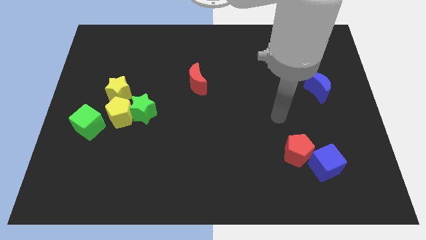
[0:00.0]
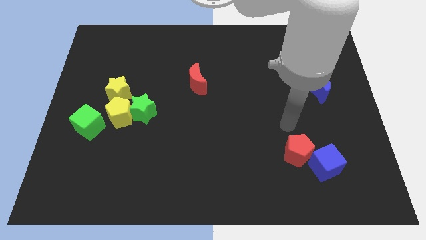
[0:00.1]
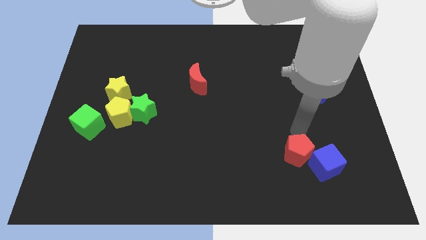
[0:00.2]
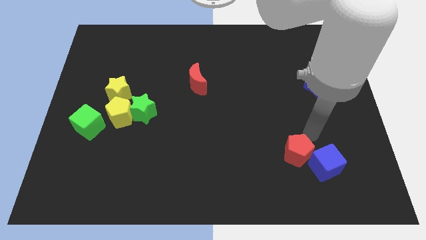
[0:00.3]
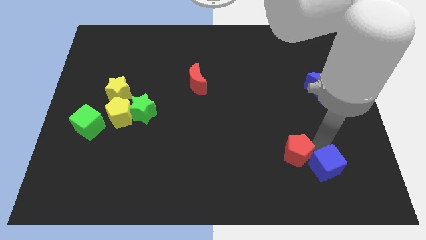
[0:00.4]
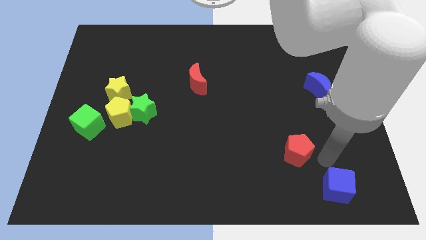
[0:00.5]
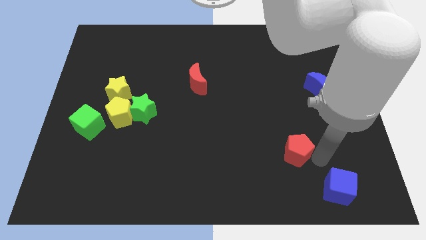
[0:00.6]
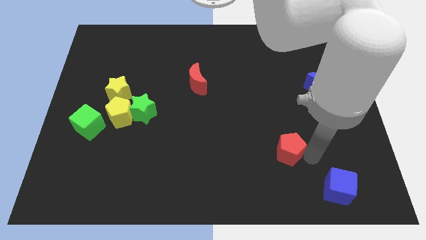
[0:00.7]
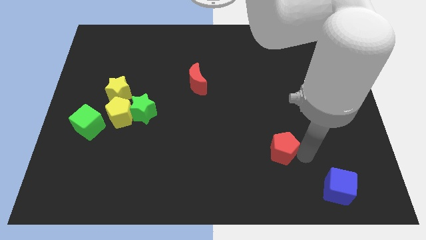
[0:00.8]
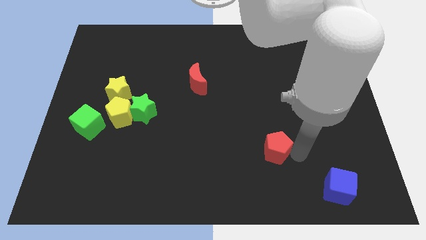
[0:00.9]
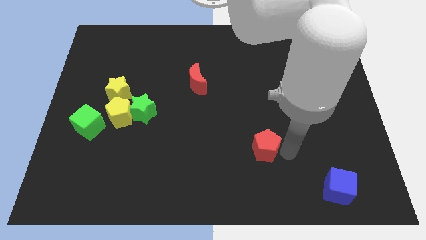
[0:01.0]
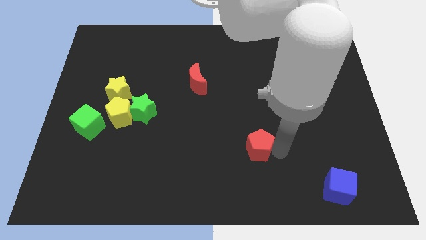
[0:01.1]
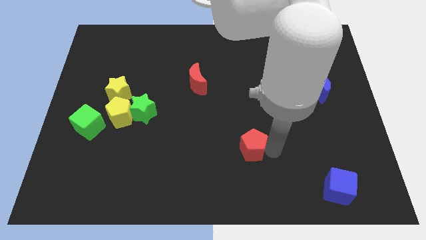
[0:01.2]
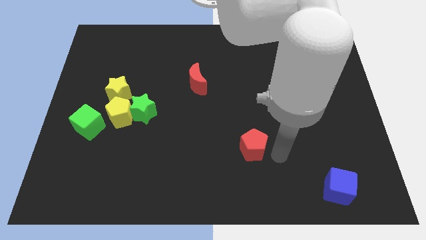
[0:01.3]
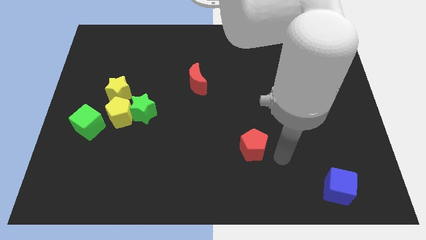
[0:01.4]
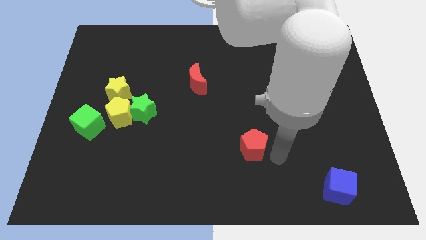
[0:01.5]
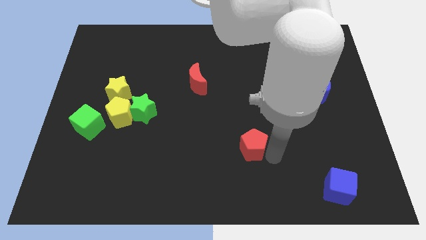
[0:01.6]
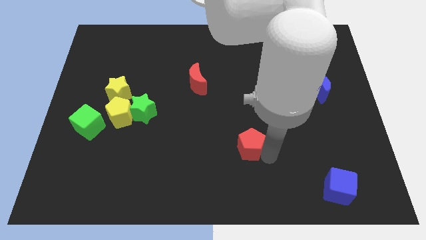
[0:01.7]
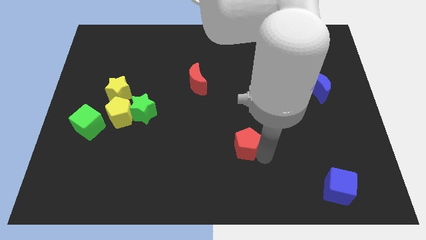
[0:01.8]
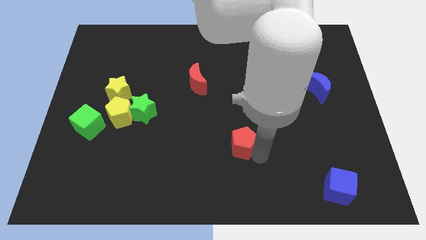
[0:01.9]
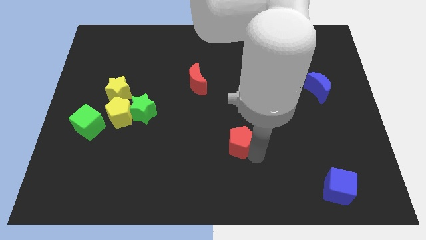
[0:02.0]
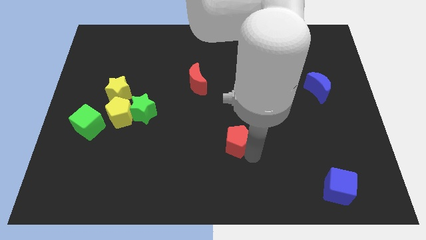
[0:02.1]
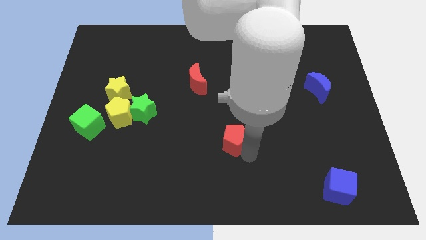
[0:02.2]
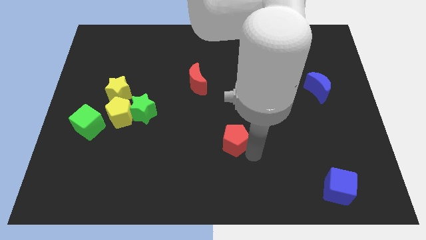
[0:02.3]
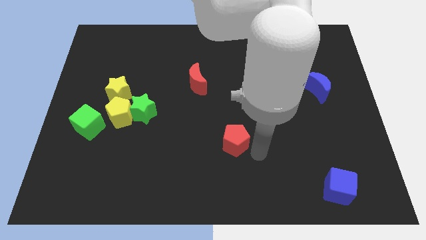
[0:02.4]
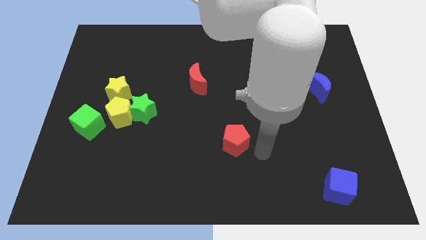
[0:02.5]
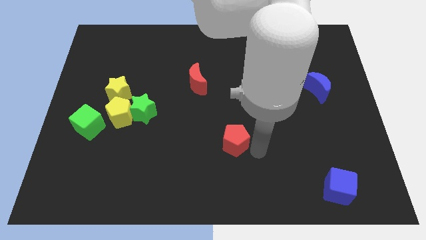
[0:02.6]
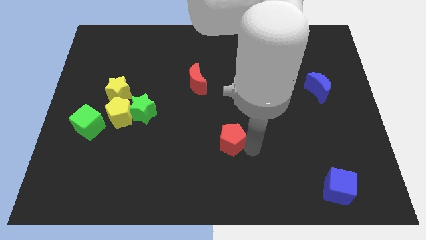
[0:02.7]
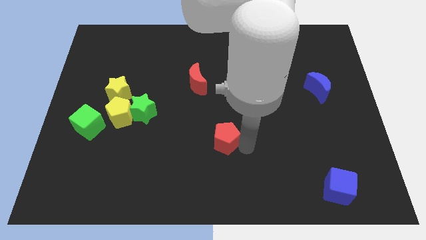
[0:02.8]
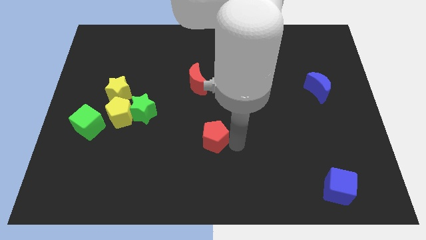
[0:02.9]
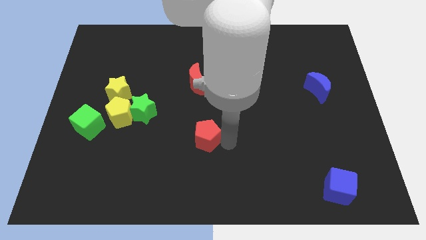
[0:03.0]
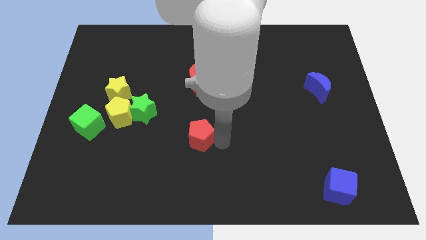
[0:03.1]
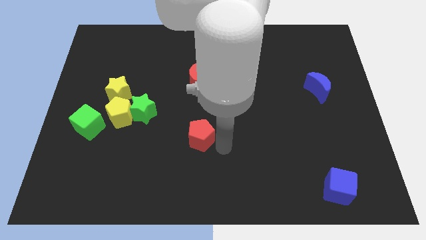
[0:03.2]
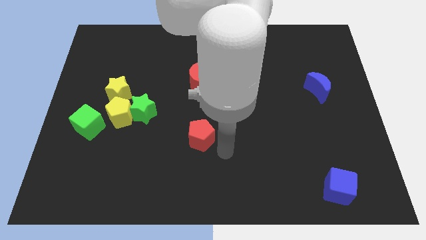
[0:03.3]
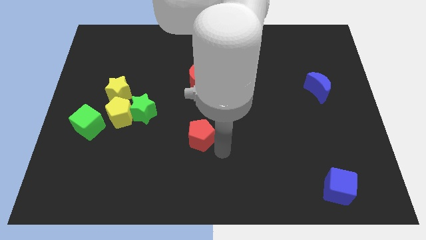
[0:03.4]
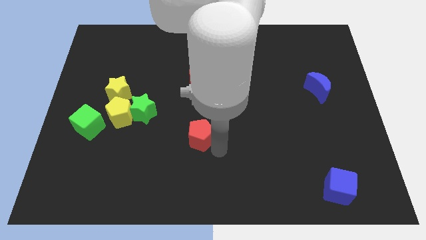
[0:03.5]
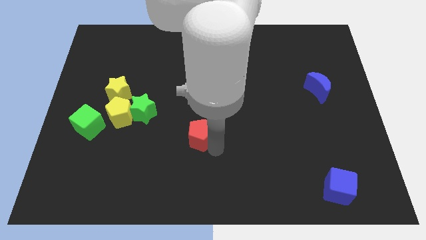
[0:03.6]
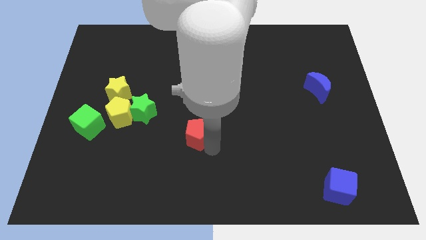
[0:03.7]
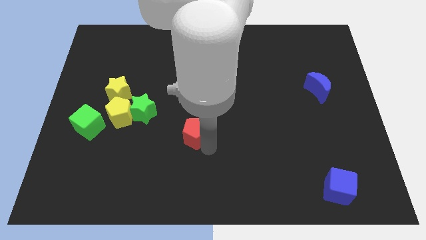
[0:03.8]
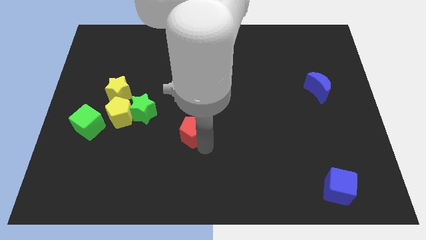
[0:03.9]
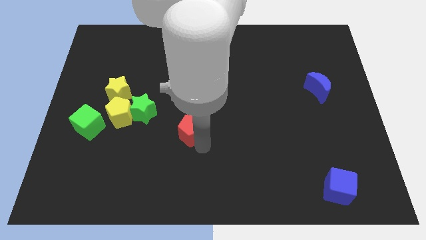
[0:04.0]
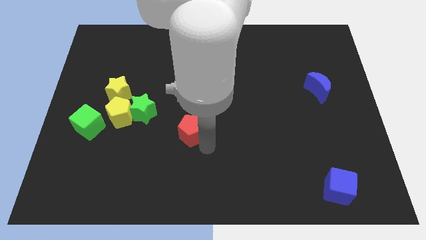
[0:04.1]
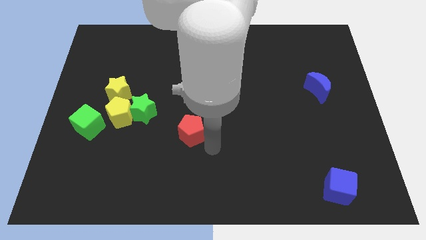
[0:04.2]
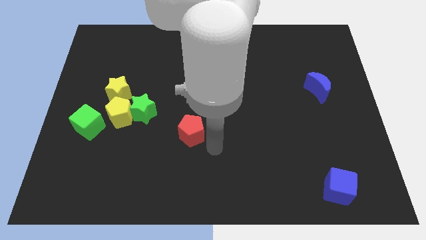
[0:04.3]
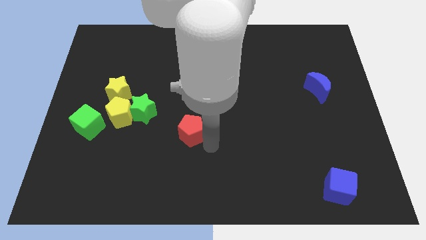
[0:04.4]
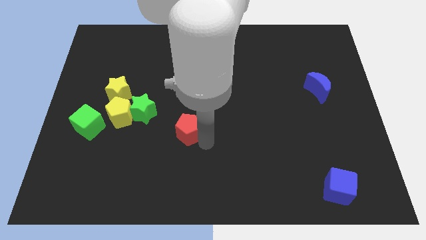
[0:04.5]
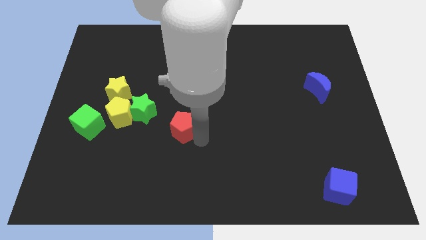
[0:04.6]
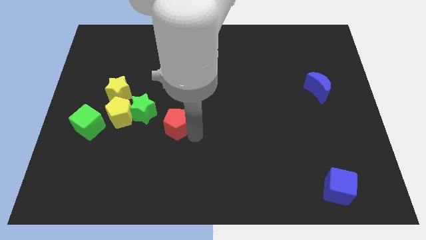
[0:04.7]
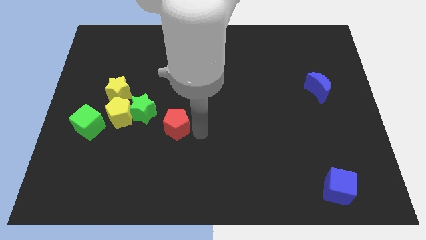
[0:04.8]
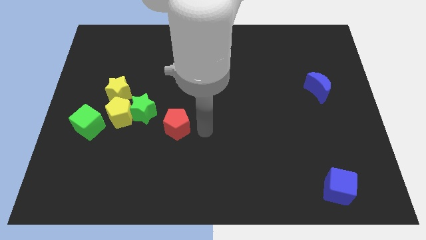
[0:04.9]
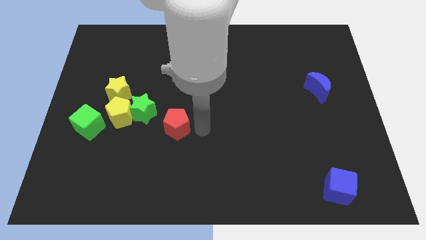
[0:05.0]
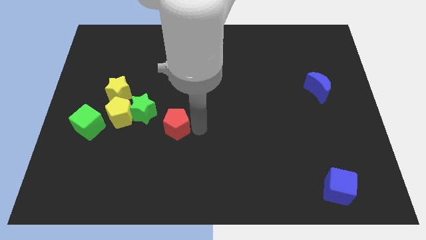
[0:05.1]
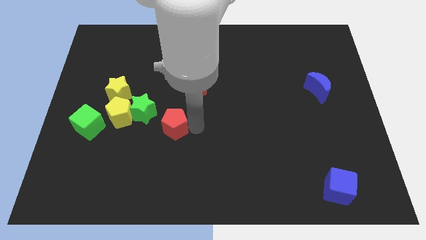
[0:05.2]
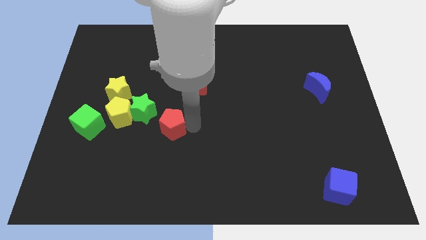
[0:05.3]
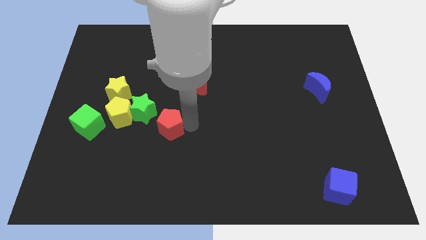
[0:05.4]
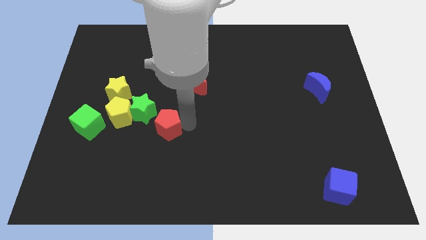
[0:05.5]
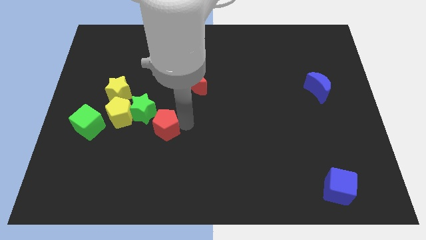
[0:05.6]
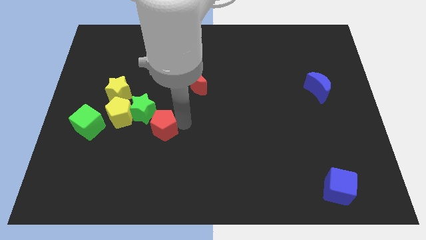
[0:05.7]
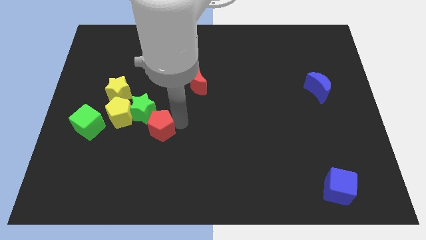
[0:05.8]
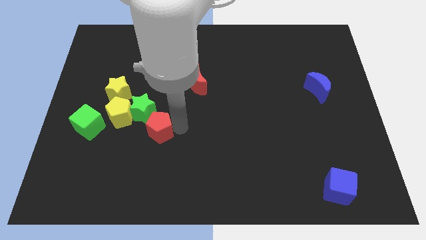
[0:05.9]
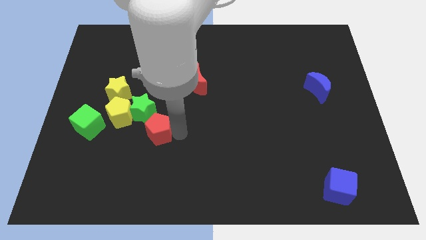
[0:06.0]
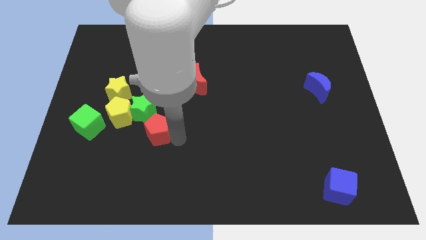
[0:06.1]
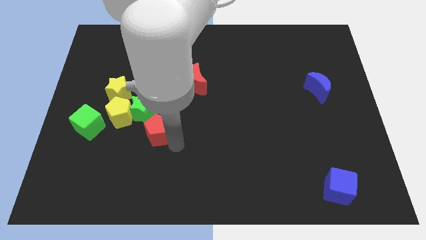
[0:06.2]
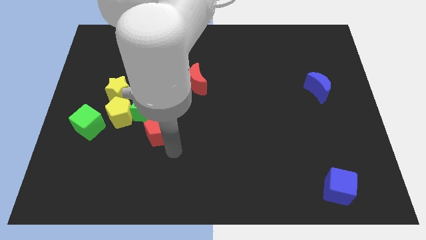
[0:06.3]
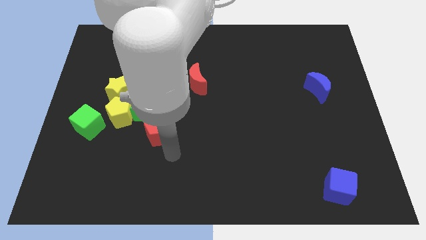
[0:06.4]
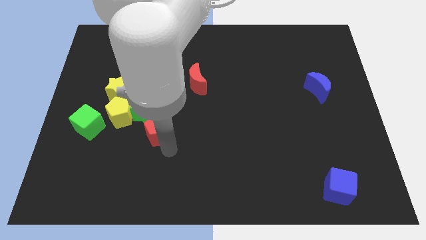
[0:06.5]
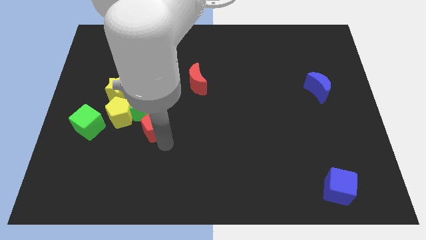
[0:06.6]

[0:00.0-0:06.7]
move the red pentagon next to the green star
